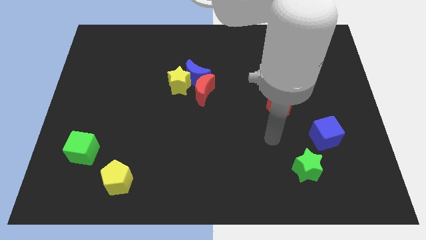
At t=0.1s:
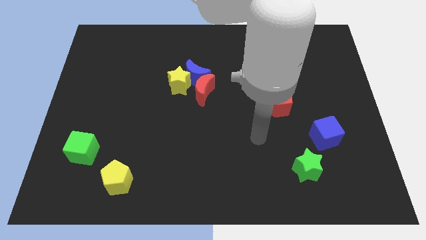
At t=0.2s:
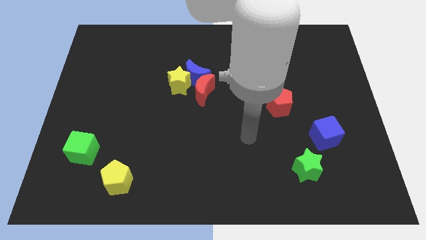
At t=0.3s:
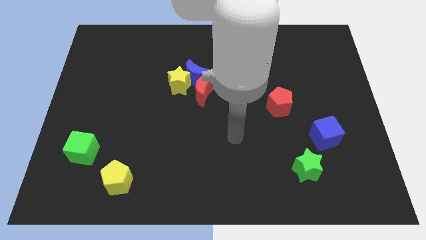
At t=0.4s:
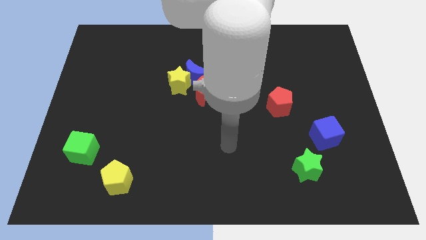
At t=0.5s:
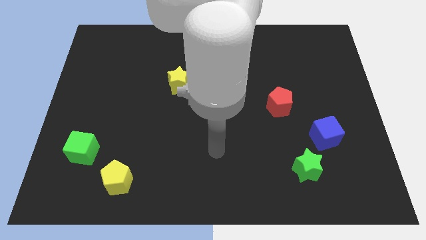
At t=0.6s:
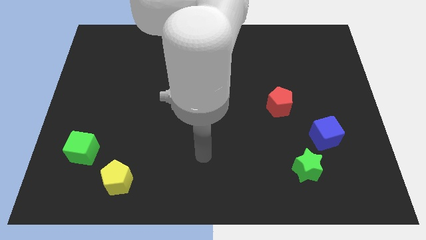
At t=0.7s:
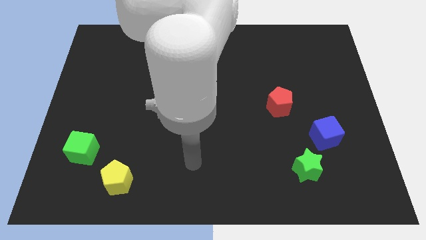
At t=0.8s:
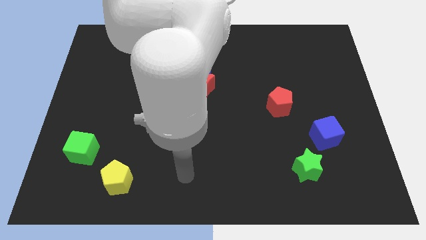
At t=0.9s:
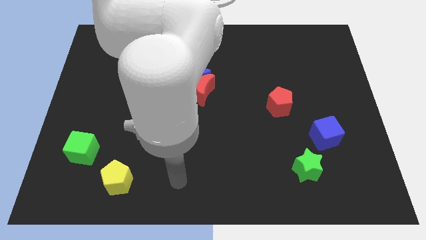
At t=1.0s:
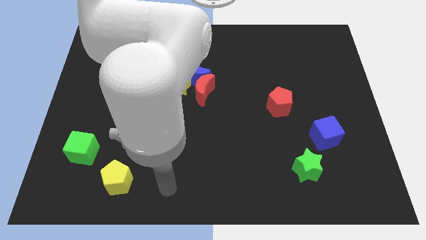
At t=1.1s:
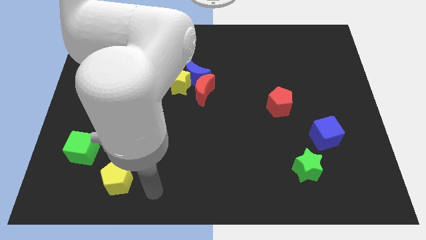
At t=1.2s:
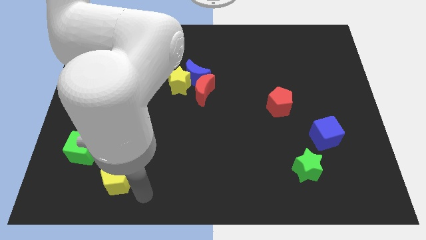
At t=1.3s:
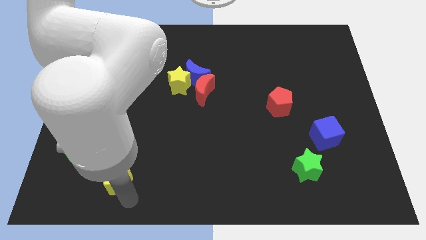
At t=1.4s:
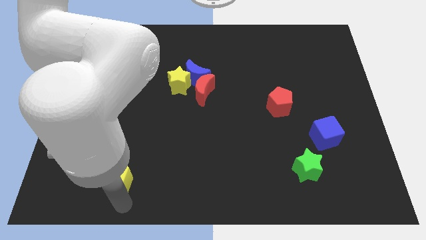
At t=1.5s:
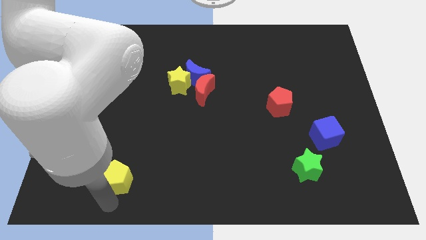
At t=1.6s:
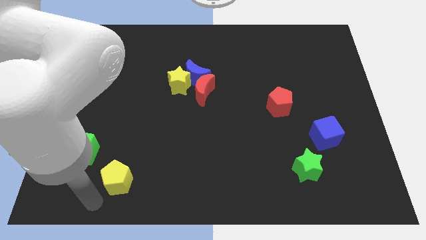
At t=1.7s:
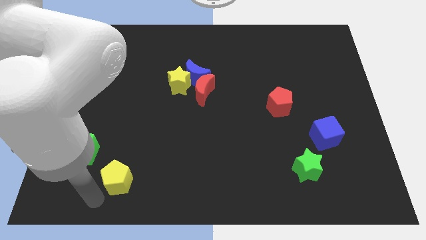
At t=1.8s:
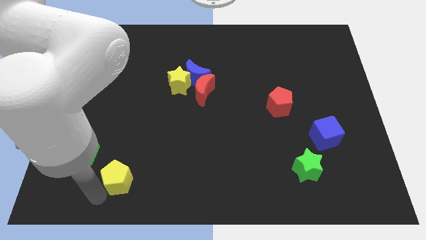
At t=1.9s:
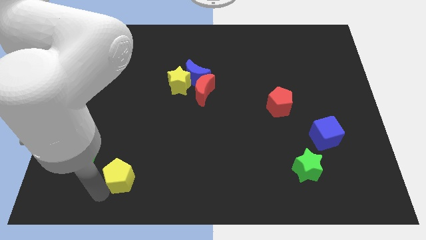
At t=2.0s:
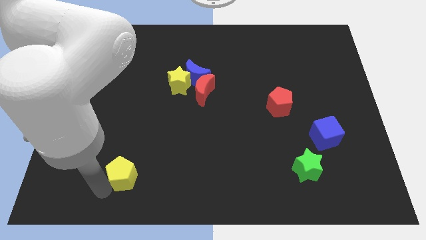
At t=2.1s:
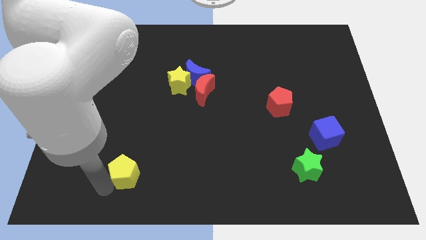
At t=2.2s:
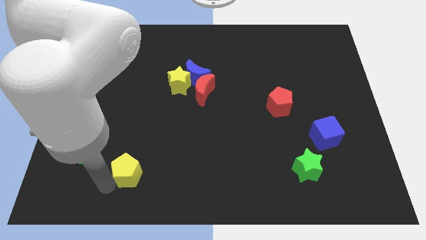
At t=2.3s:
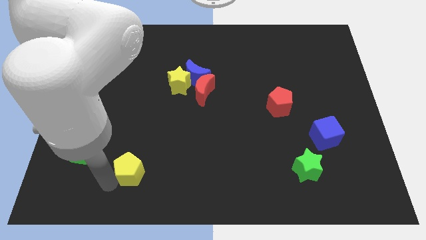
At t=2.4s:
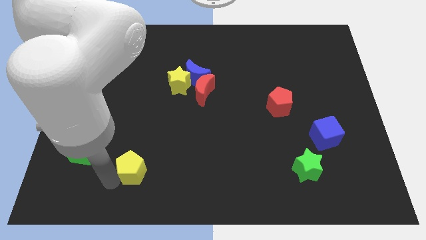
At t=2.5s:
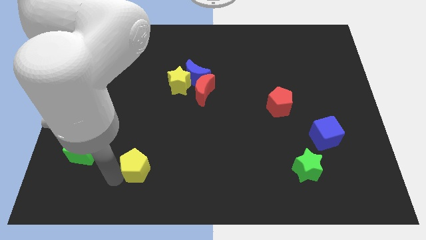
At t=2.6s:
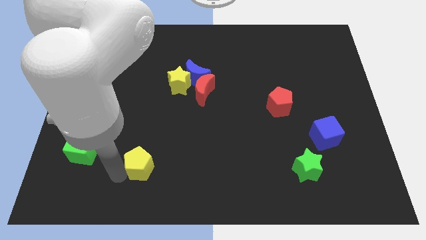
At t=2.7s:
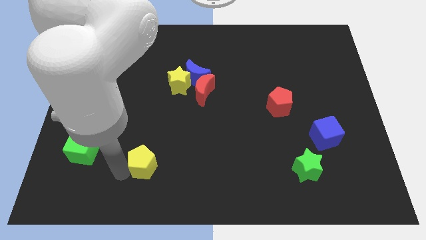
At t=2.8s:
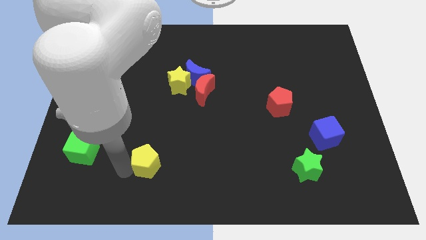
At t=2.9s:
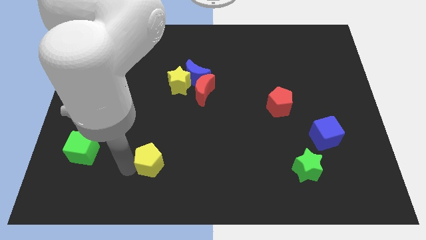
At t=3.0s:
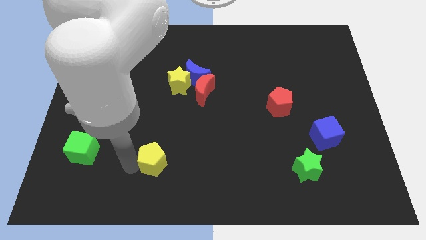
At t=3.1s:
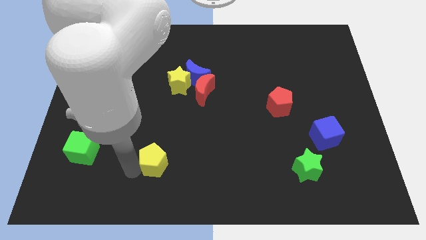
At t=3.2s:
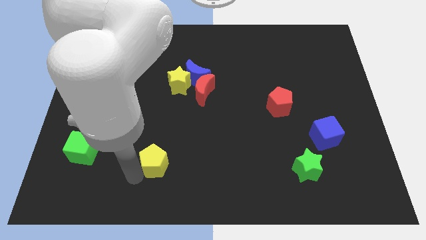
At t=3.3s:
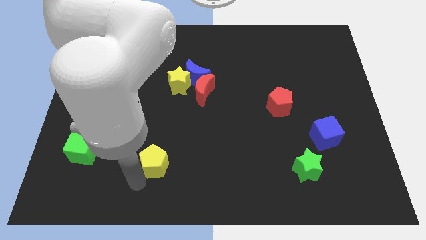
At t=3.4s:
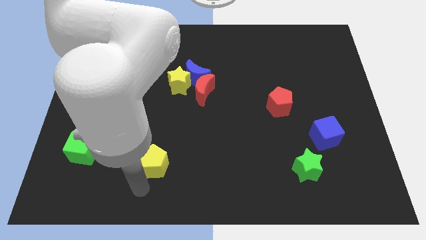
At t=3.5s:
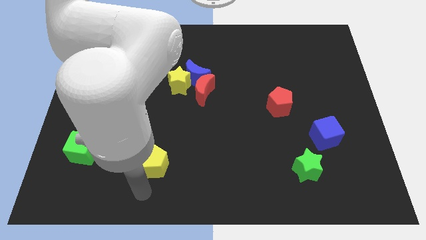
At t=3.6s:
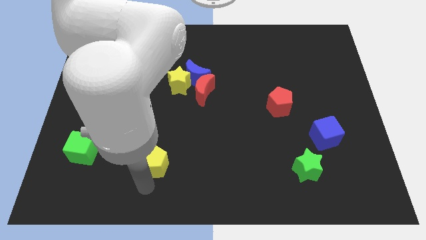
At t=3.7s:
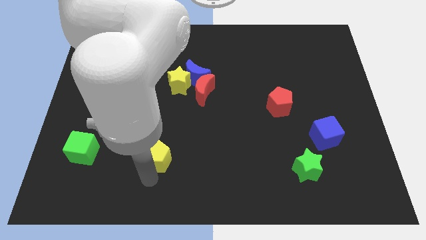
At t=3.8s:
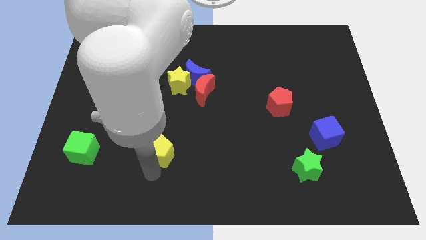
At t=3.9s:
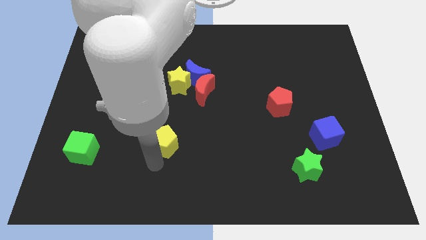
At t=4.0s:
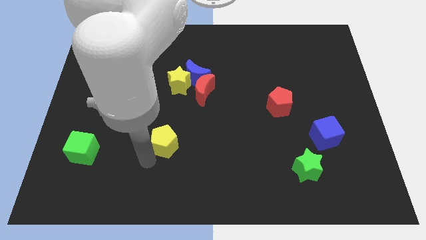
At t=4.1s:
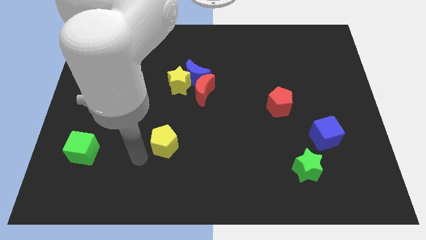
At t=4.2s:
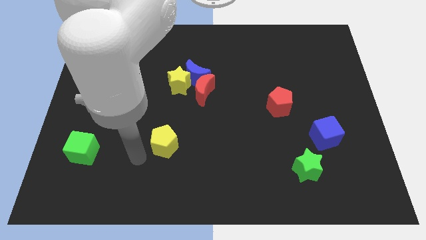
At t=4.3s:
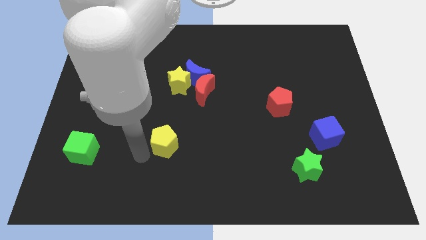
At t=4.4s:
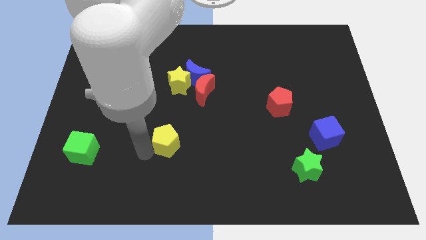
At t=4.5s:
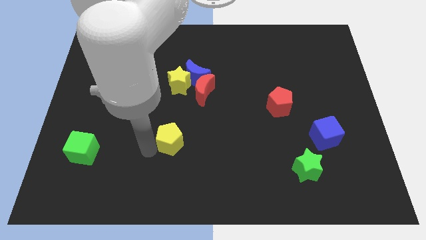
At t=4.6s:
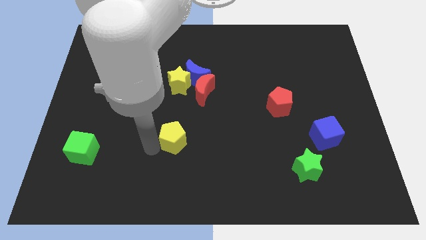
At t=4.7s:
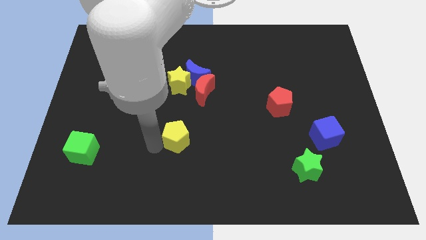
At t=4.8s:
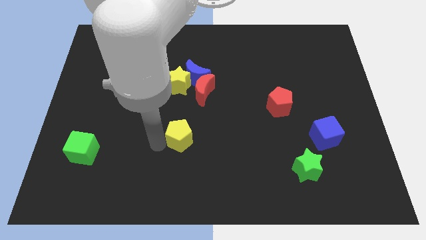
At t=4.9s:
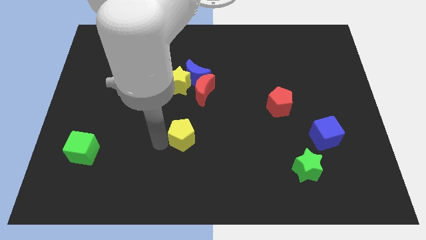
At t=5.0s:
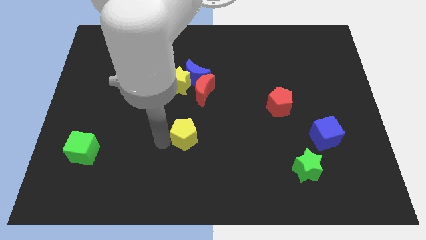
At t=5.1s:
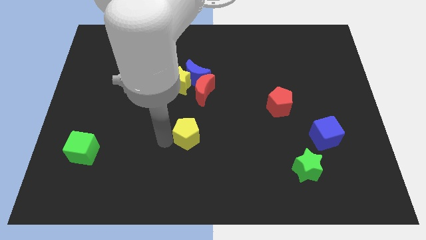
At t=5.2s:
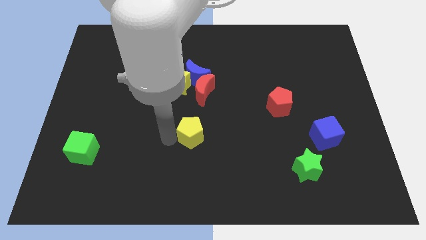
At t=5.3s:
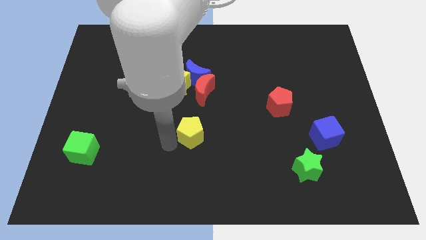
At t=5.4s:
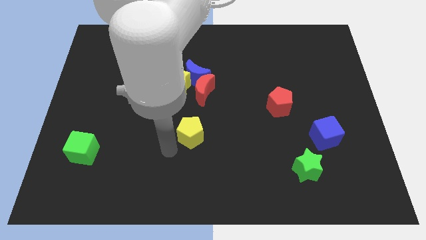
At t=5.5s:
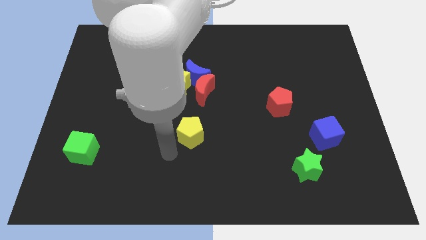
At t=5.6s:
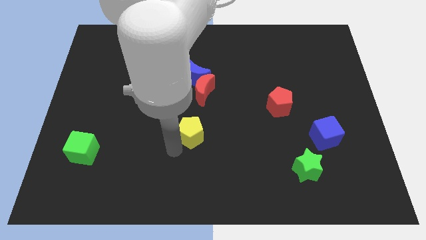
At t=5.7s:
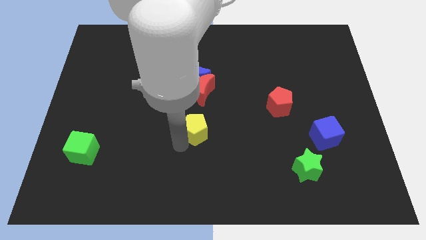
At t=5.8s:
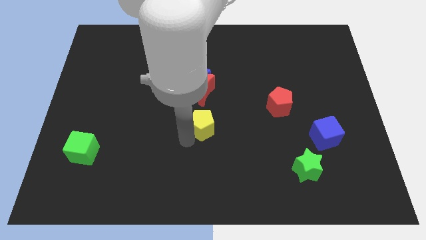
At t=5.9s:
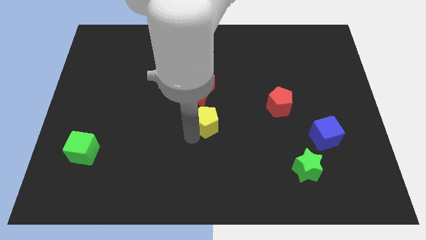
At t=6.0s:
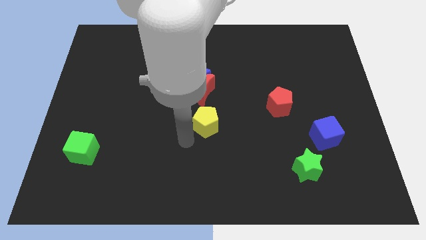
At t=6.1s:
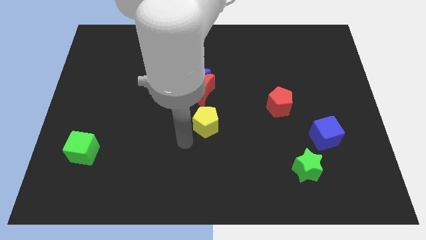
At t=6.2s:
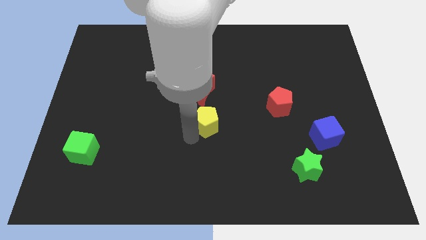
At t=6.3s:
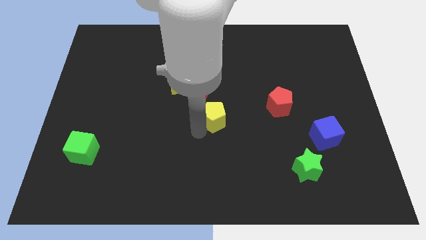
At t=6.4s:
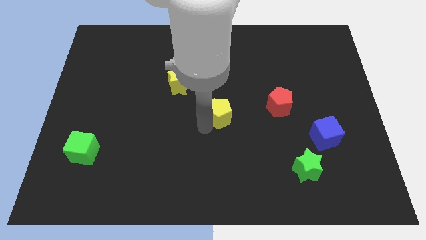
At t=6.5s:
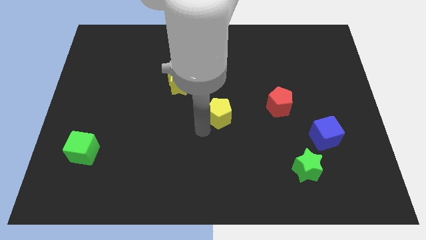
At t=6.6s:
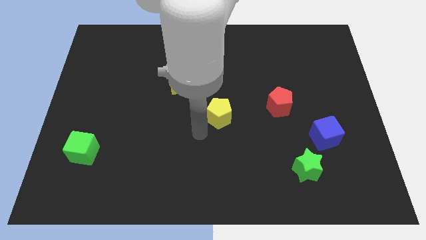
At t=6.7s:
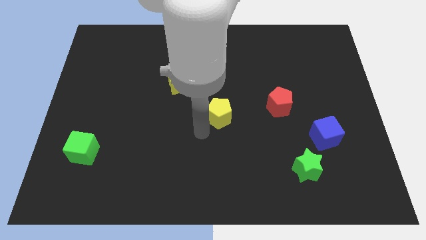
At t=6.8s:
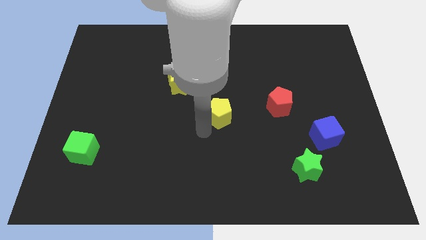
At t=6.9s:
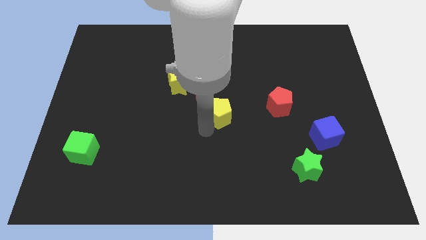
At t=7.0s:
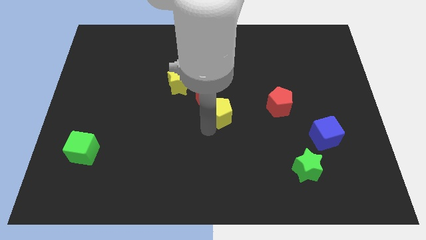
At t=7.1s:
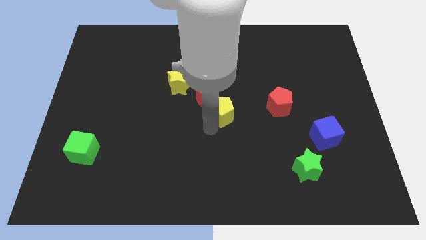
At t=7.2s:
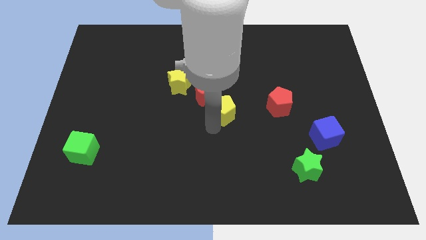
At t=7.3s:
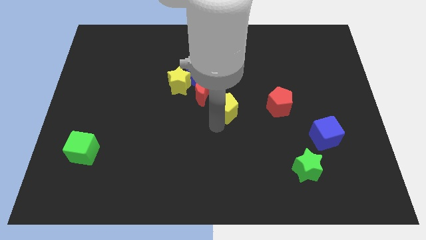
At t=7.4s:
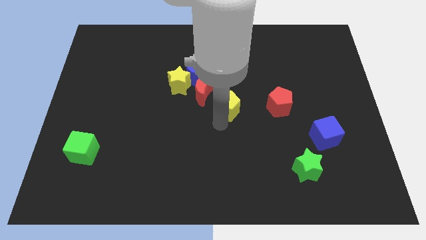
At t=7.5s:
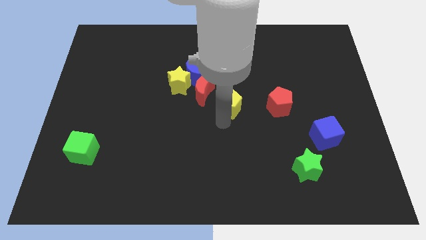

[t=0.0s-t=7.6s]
put the yellow pentagon to the right of the red moon
